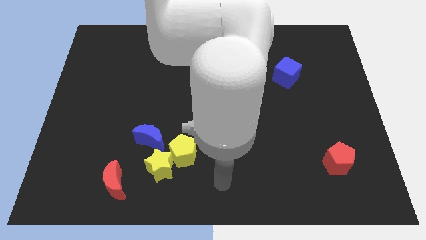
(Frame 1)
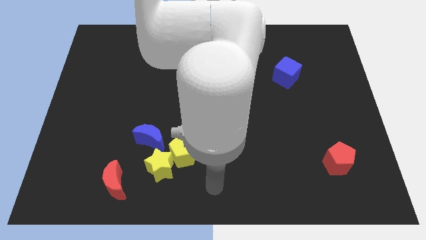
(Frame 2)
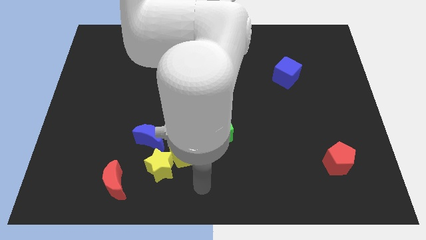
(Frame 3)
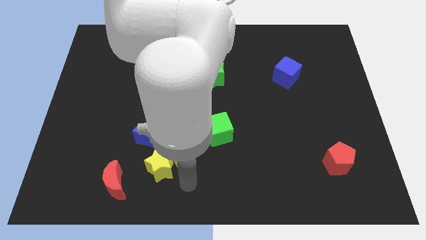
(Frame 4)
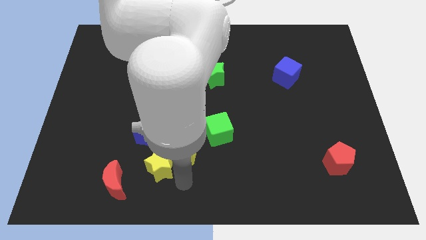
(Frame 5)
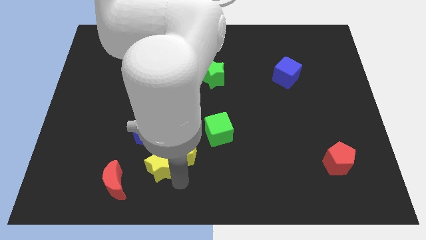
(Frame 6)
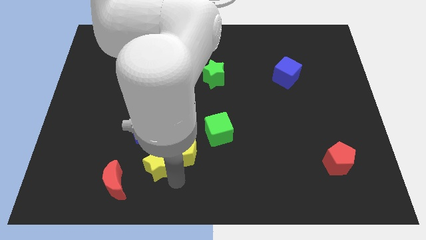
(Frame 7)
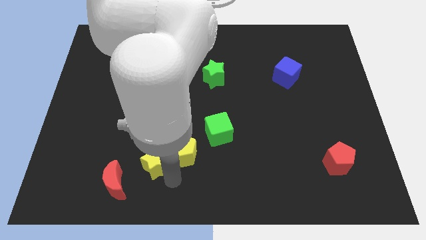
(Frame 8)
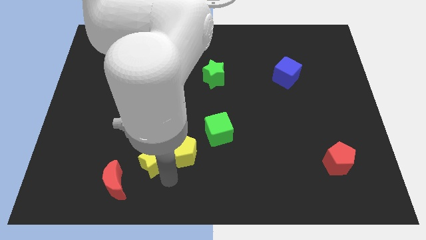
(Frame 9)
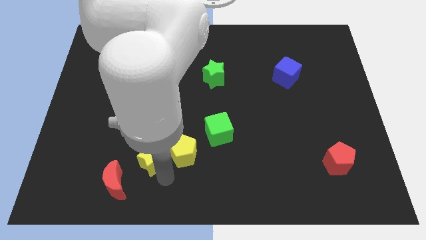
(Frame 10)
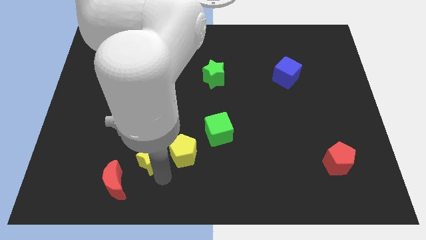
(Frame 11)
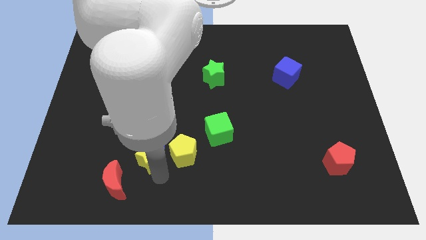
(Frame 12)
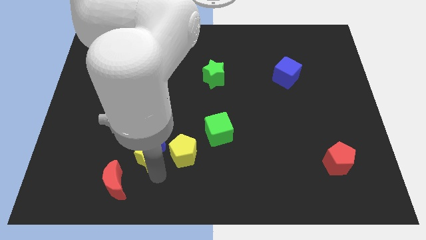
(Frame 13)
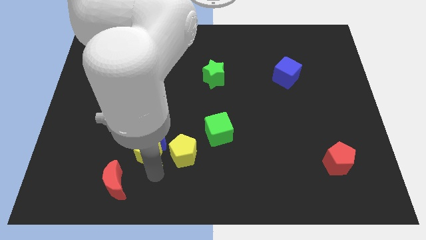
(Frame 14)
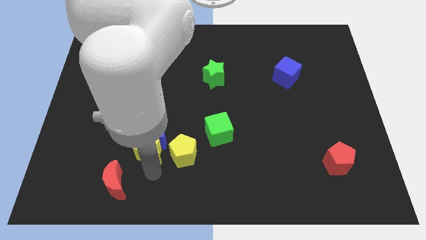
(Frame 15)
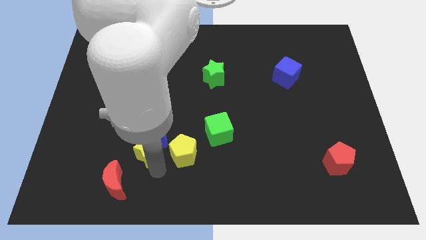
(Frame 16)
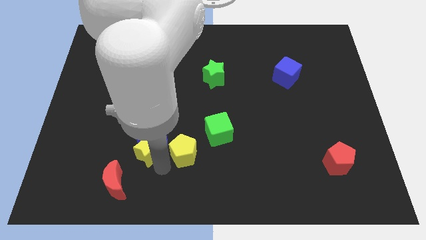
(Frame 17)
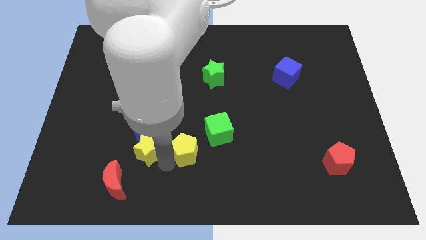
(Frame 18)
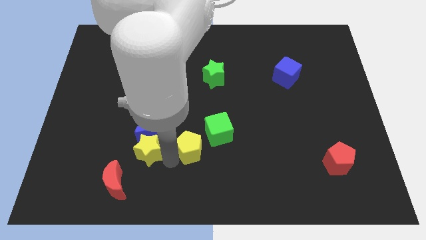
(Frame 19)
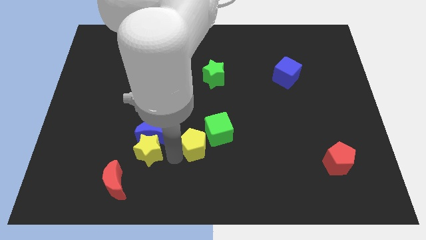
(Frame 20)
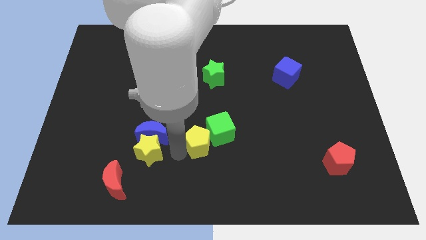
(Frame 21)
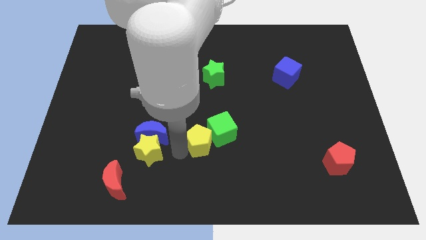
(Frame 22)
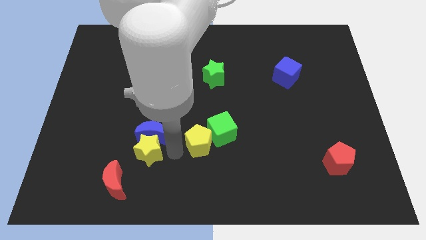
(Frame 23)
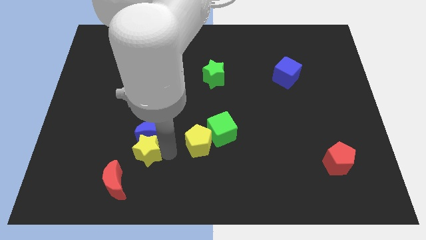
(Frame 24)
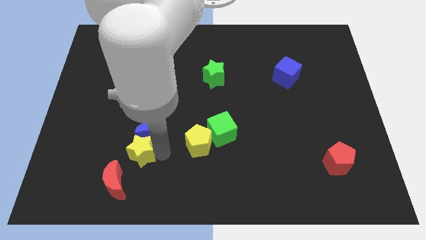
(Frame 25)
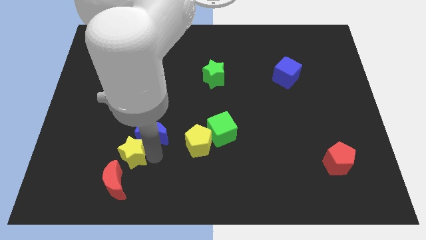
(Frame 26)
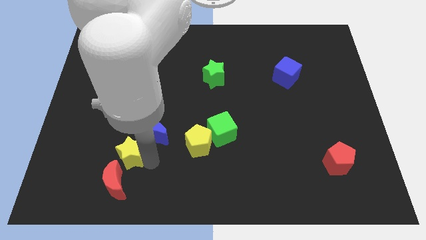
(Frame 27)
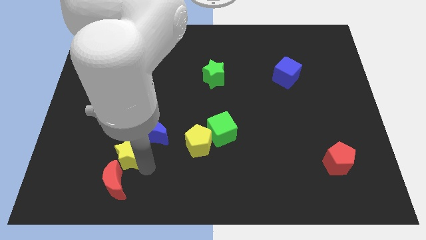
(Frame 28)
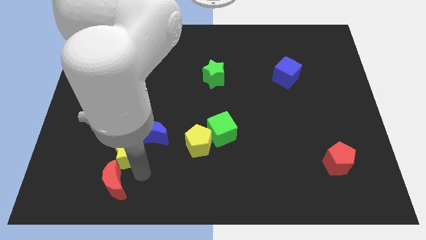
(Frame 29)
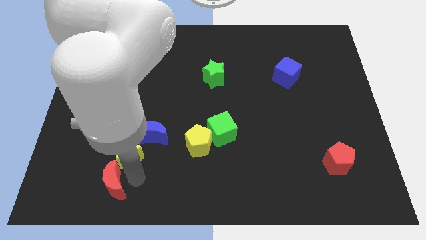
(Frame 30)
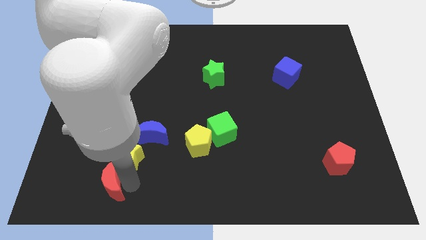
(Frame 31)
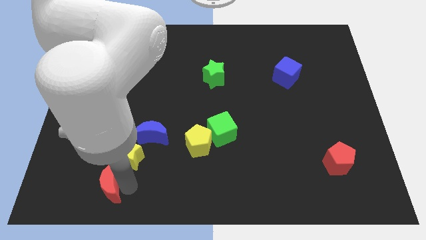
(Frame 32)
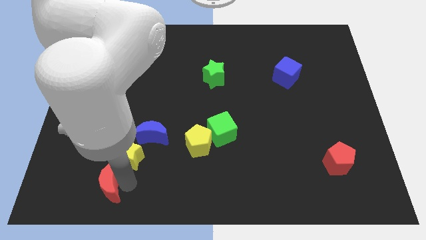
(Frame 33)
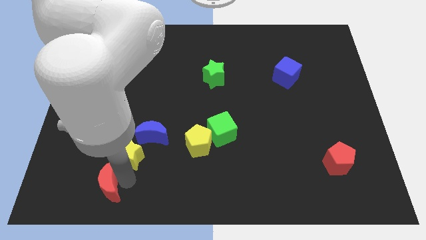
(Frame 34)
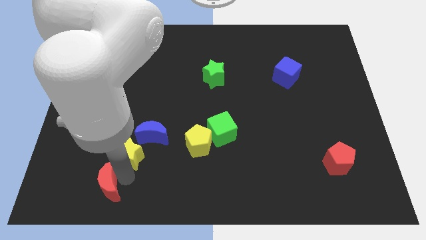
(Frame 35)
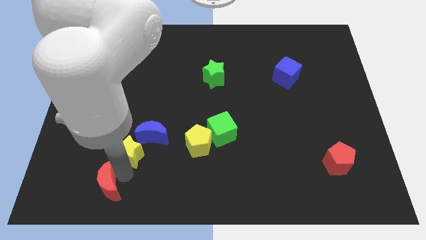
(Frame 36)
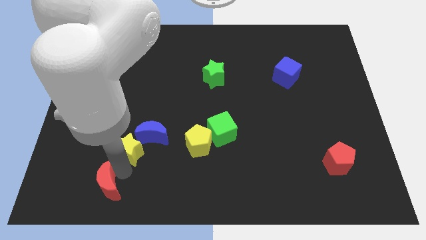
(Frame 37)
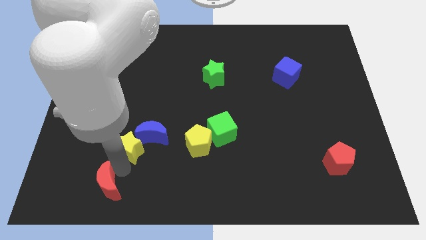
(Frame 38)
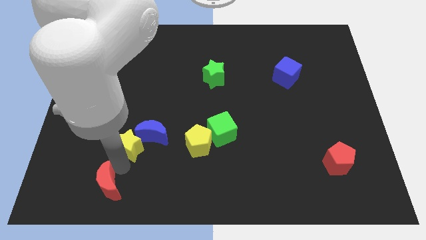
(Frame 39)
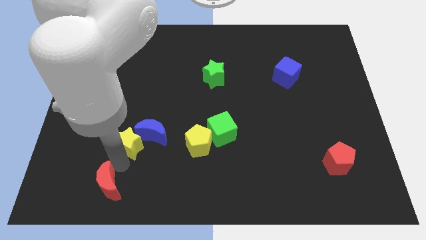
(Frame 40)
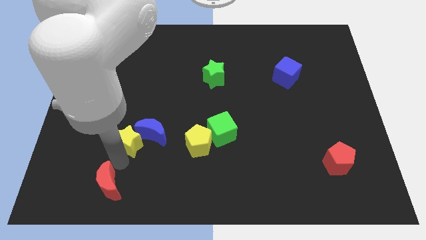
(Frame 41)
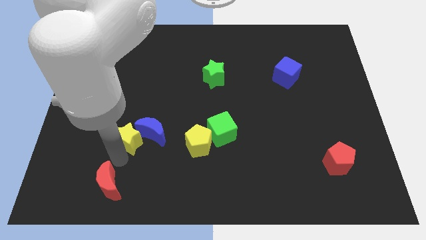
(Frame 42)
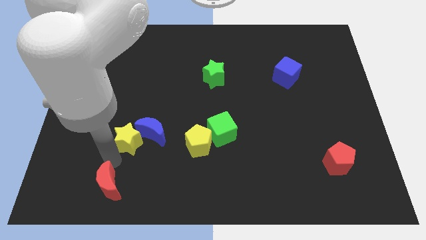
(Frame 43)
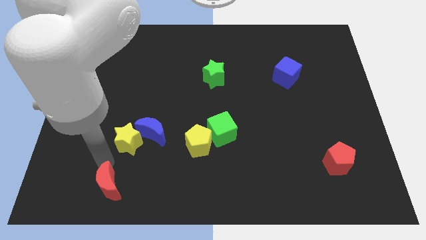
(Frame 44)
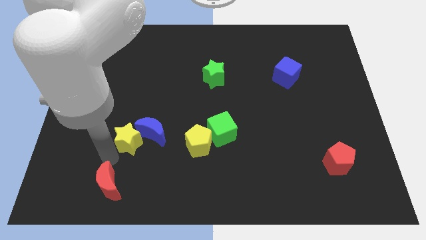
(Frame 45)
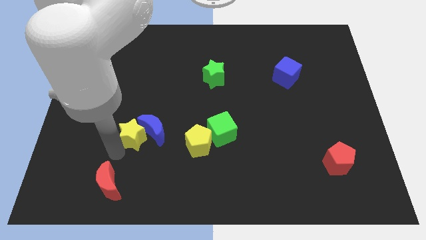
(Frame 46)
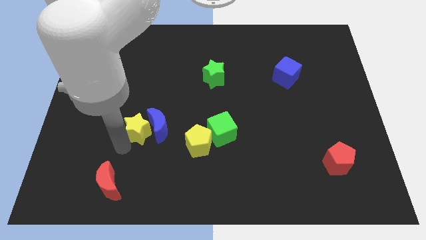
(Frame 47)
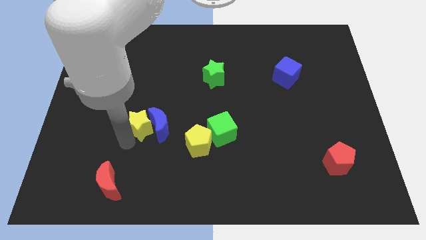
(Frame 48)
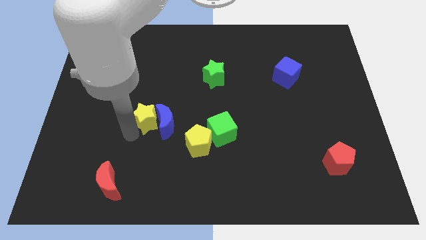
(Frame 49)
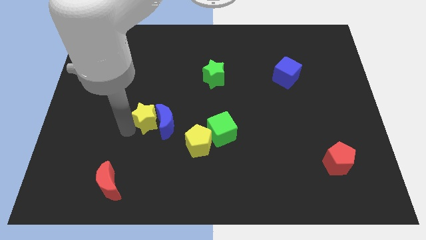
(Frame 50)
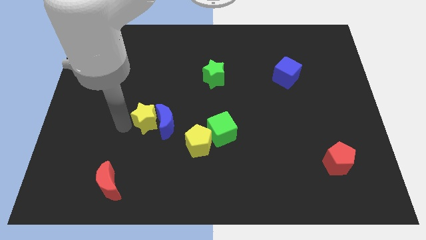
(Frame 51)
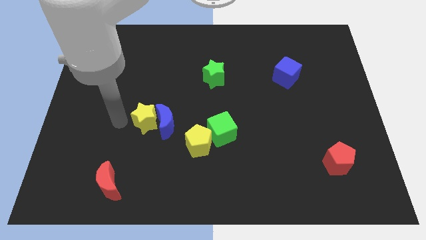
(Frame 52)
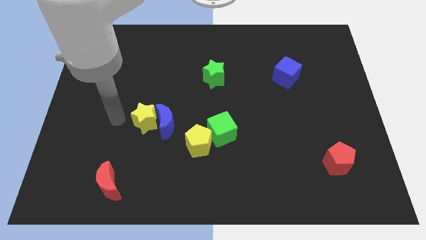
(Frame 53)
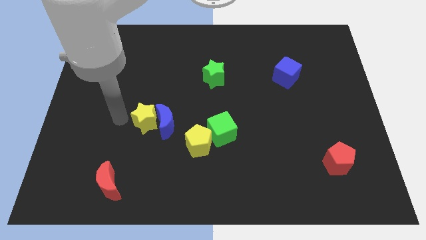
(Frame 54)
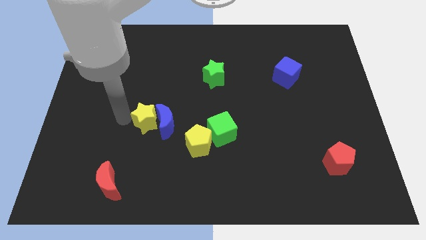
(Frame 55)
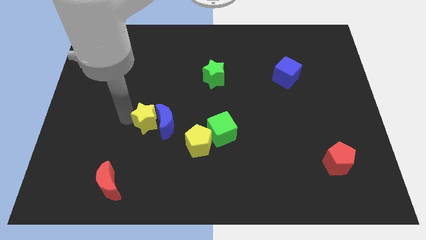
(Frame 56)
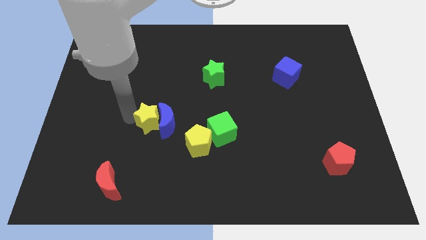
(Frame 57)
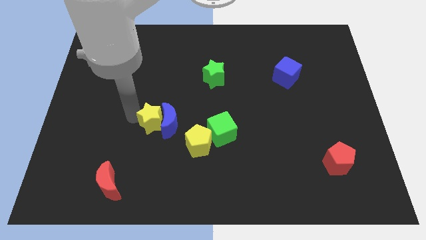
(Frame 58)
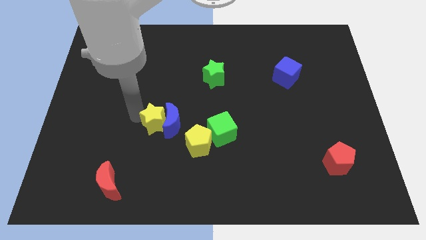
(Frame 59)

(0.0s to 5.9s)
move the yellow star diagonally up and to the left of the yellow pentagon

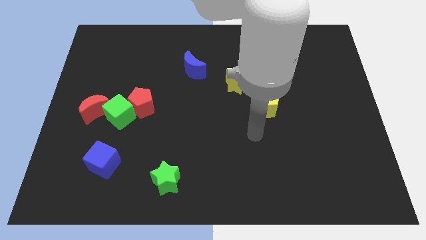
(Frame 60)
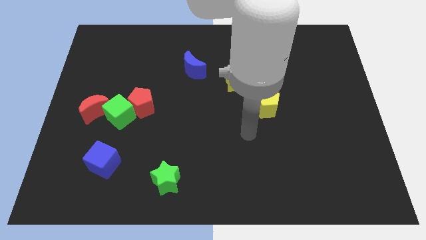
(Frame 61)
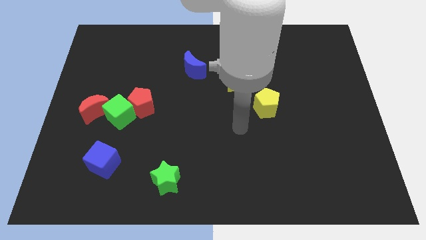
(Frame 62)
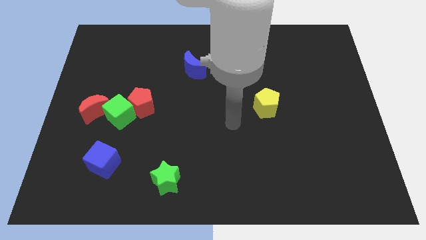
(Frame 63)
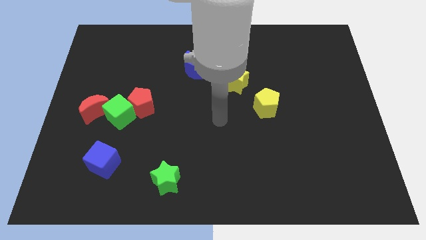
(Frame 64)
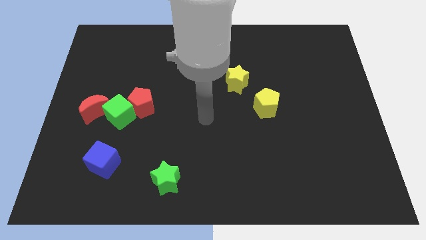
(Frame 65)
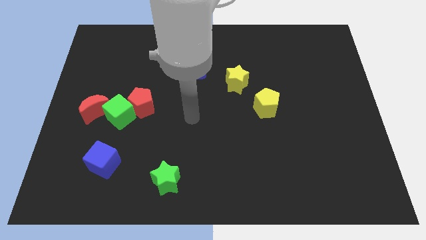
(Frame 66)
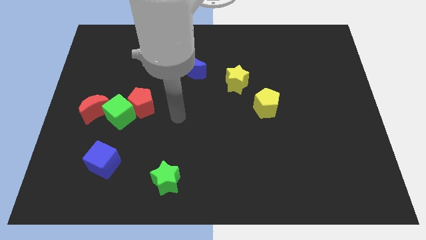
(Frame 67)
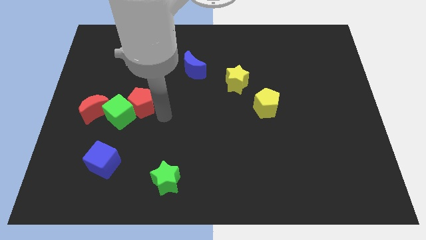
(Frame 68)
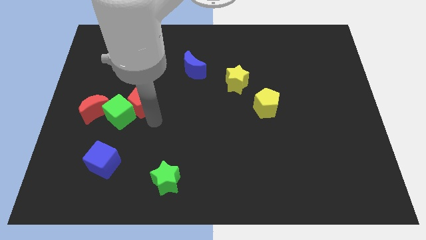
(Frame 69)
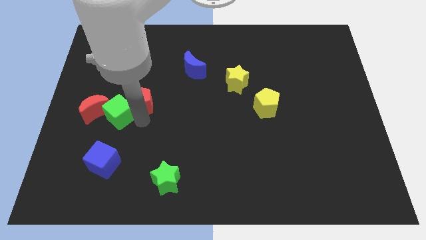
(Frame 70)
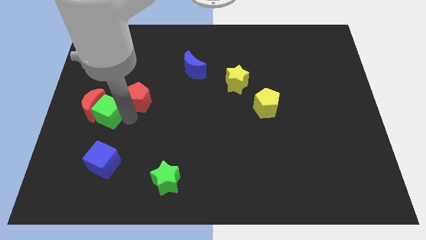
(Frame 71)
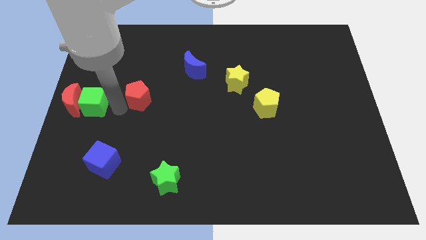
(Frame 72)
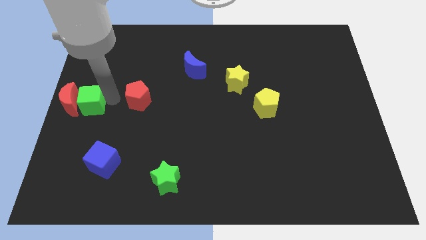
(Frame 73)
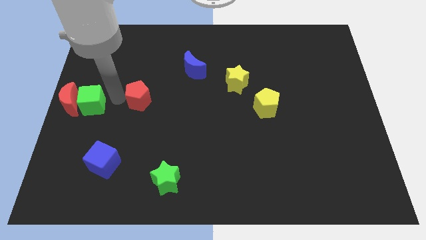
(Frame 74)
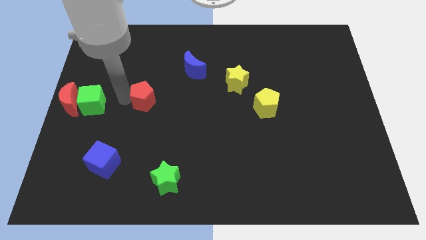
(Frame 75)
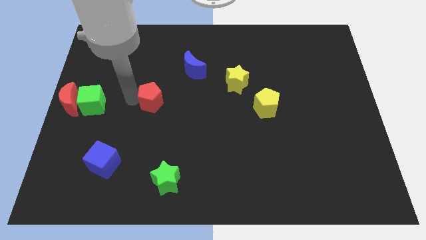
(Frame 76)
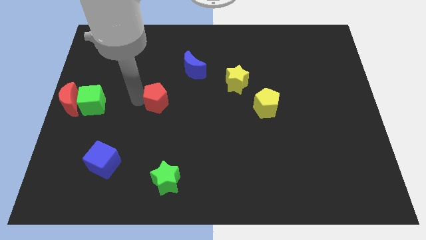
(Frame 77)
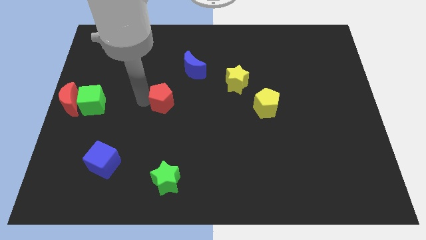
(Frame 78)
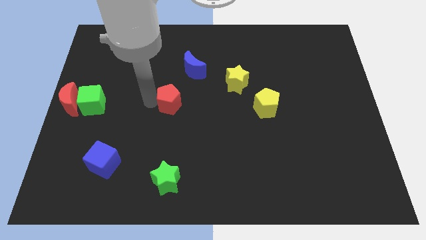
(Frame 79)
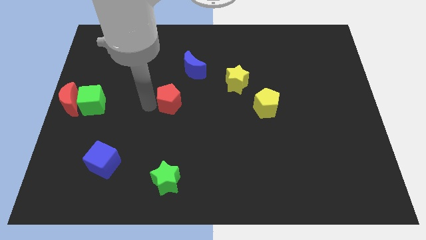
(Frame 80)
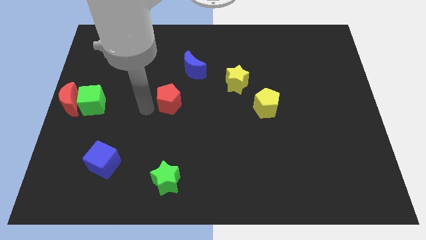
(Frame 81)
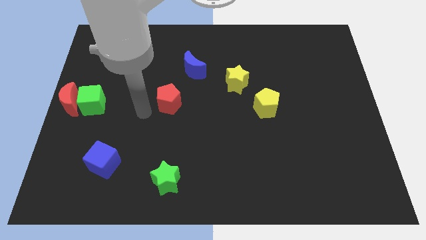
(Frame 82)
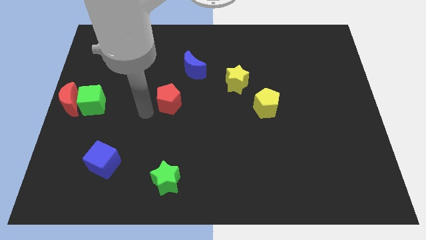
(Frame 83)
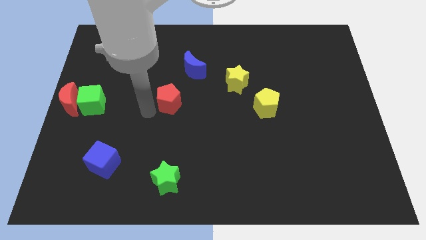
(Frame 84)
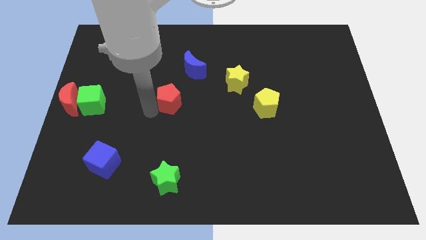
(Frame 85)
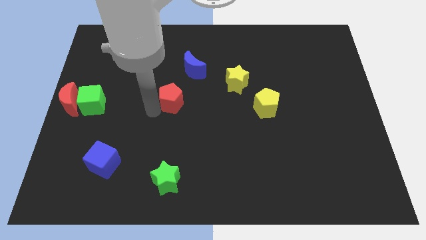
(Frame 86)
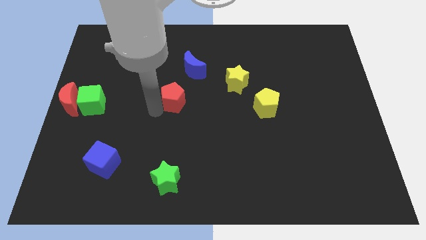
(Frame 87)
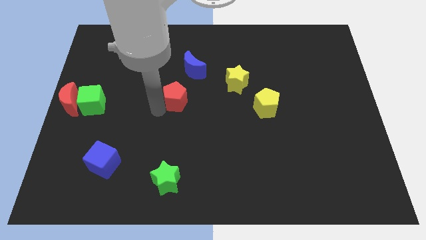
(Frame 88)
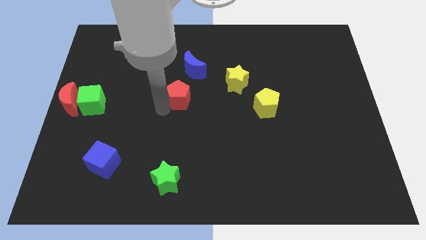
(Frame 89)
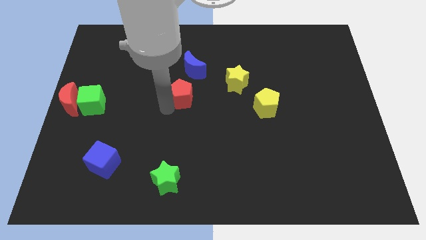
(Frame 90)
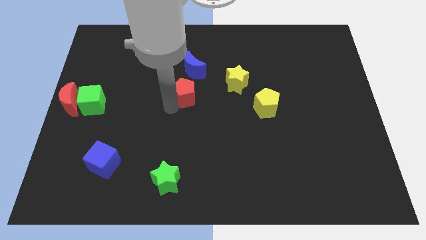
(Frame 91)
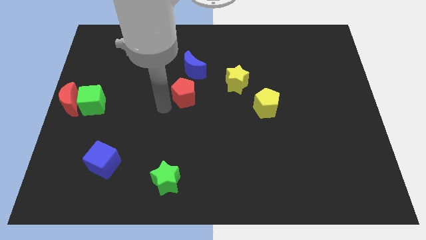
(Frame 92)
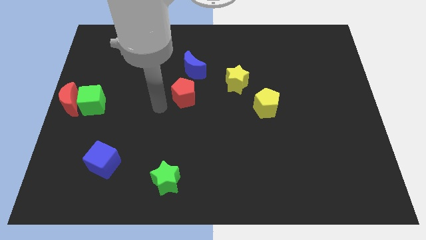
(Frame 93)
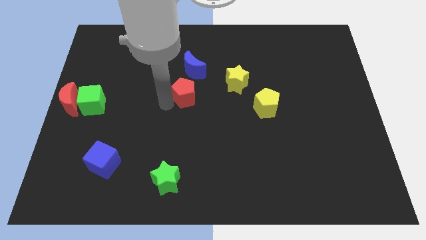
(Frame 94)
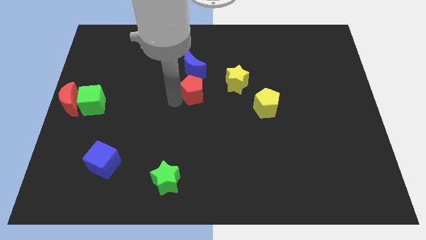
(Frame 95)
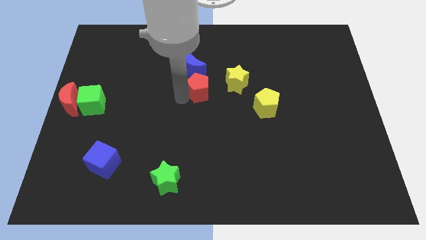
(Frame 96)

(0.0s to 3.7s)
slide the red pentagon diagonally down and to the right of the blue moon
